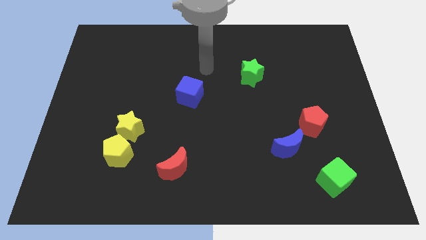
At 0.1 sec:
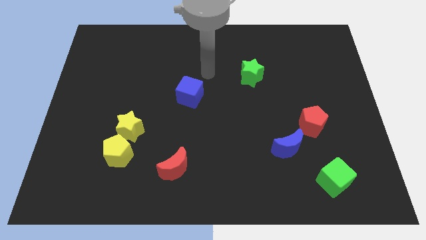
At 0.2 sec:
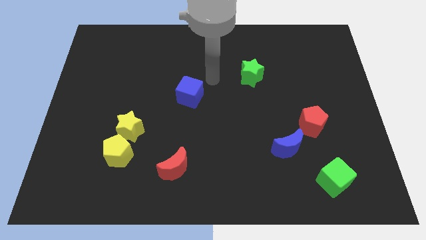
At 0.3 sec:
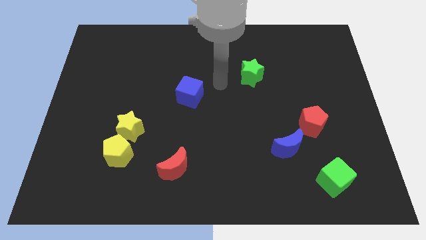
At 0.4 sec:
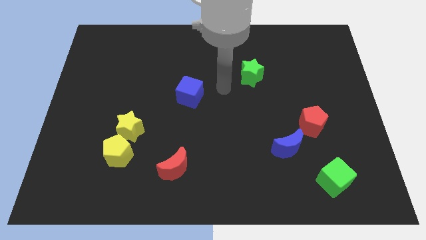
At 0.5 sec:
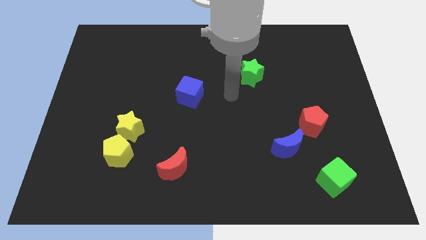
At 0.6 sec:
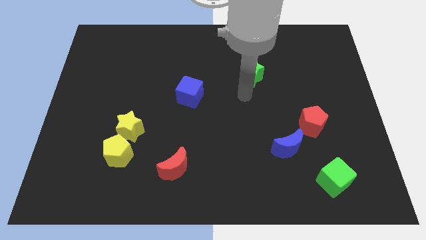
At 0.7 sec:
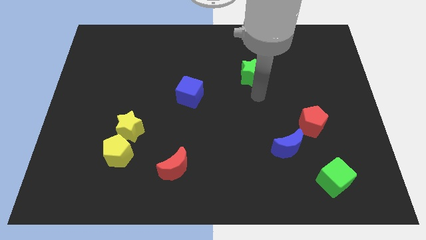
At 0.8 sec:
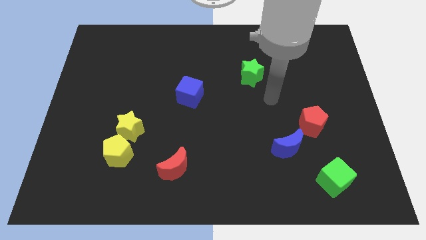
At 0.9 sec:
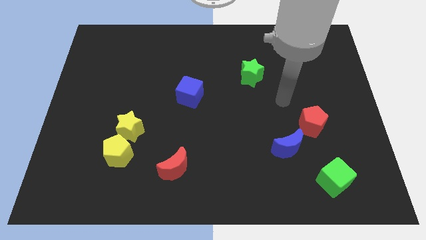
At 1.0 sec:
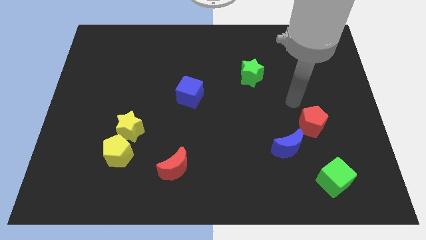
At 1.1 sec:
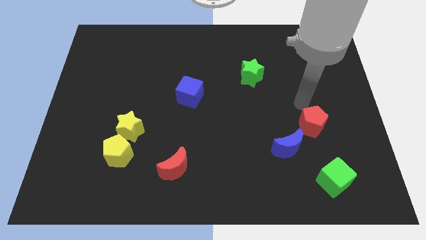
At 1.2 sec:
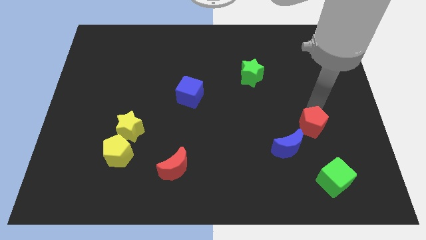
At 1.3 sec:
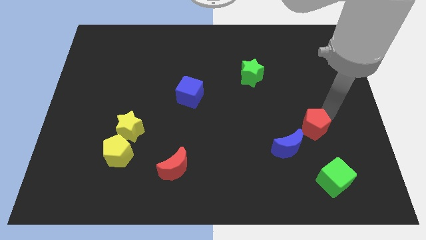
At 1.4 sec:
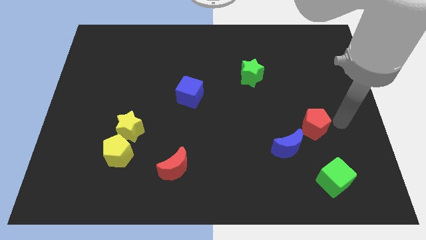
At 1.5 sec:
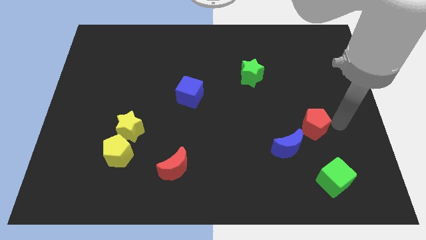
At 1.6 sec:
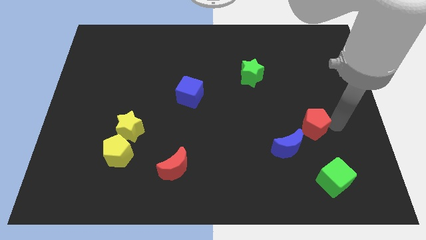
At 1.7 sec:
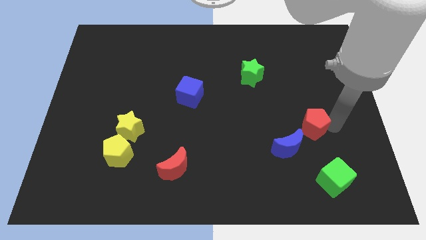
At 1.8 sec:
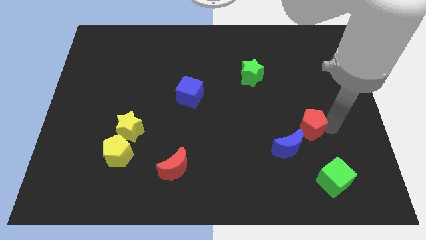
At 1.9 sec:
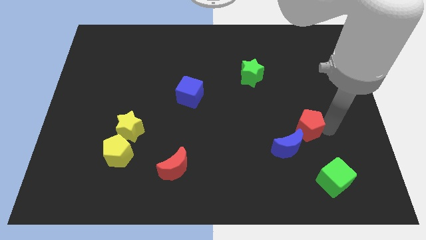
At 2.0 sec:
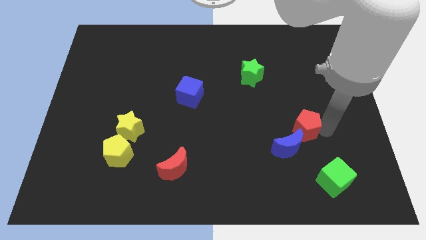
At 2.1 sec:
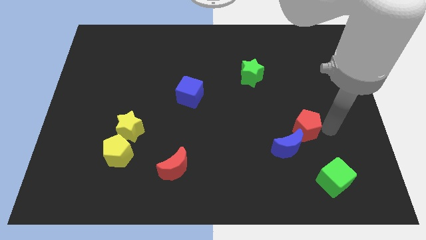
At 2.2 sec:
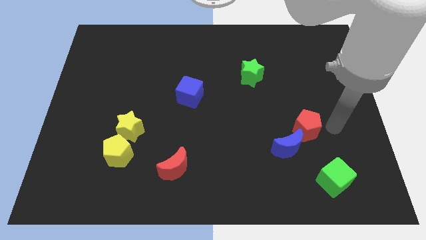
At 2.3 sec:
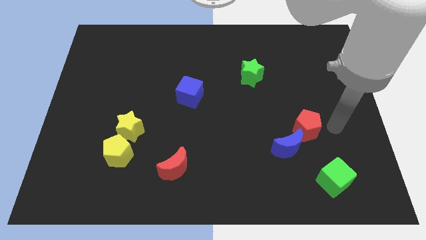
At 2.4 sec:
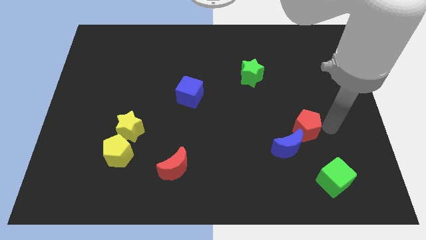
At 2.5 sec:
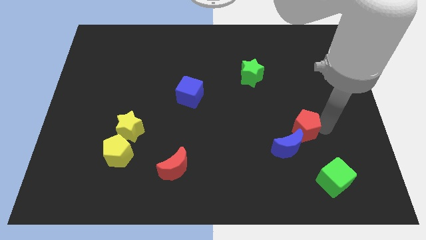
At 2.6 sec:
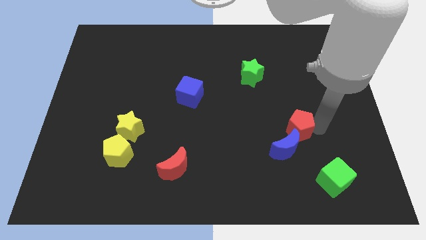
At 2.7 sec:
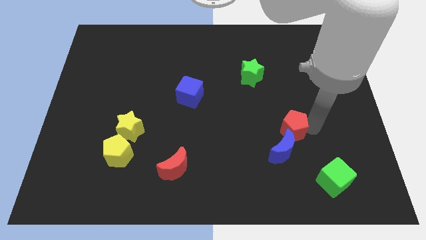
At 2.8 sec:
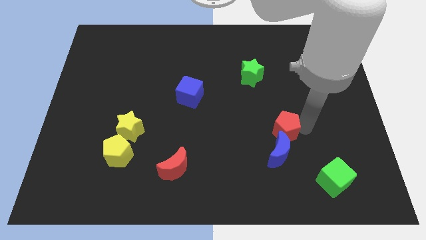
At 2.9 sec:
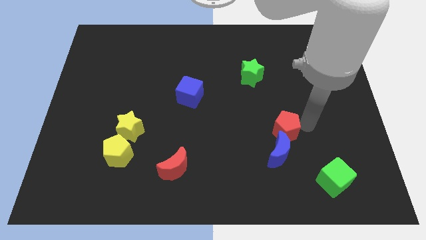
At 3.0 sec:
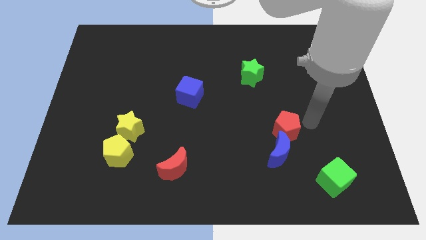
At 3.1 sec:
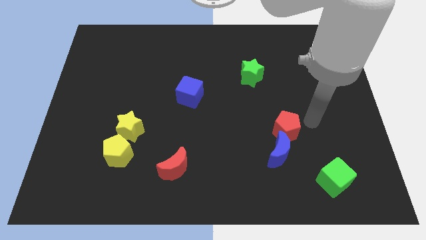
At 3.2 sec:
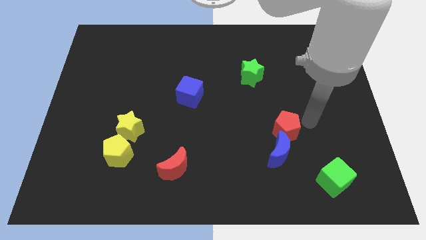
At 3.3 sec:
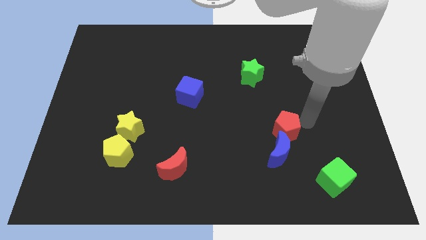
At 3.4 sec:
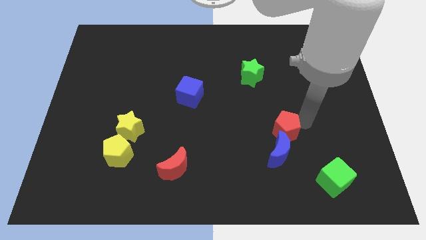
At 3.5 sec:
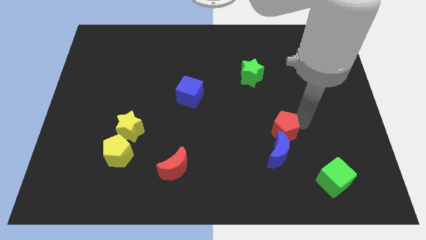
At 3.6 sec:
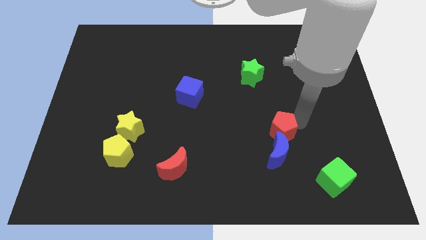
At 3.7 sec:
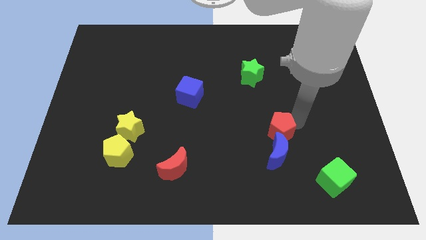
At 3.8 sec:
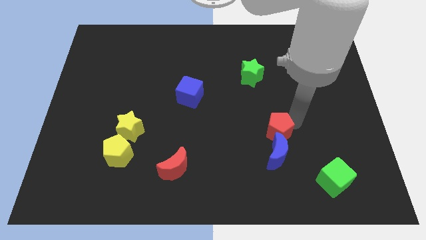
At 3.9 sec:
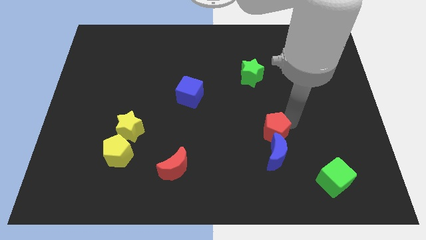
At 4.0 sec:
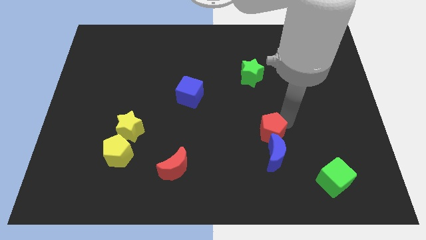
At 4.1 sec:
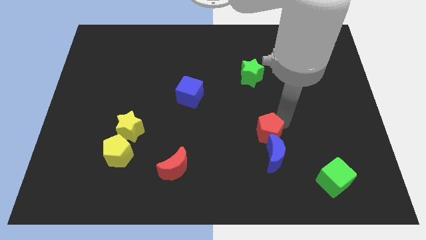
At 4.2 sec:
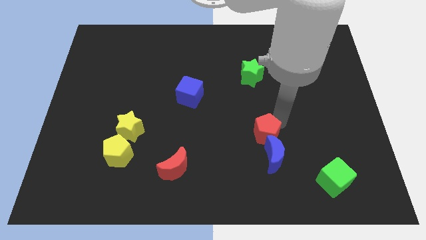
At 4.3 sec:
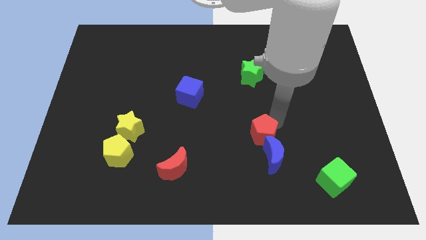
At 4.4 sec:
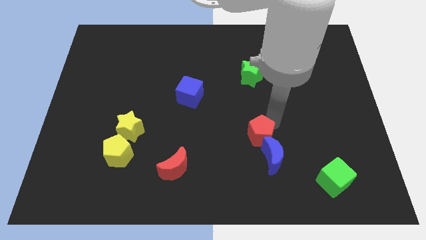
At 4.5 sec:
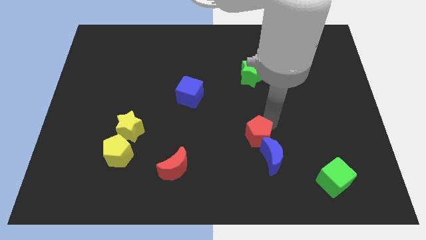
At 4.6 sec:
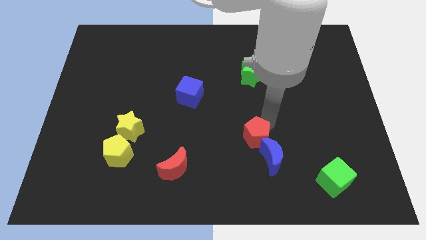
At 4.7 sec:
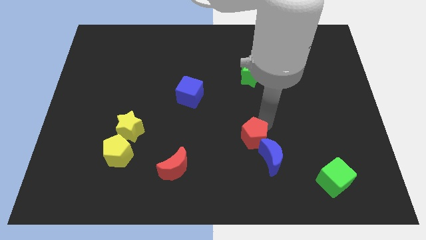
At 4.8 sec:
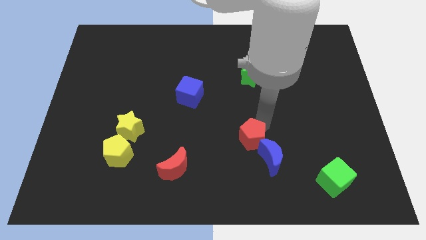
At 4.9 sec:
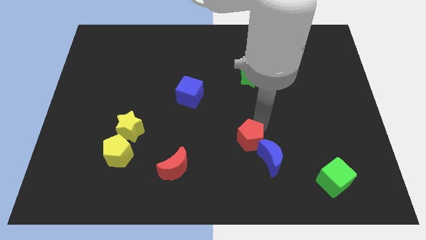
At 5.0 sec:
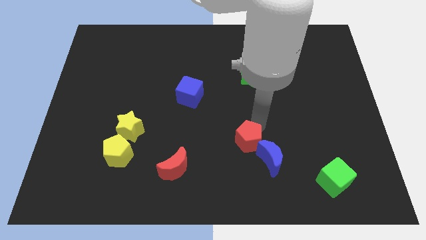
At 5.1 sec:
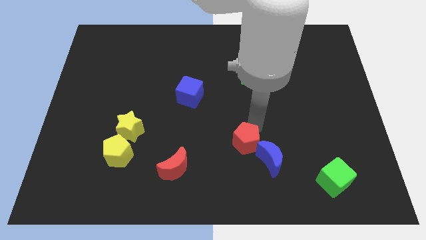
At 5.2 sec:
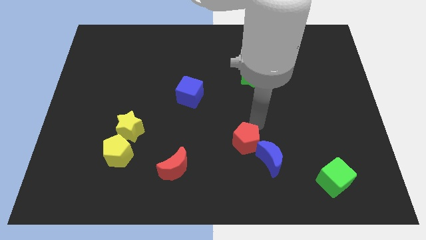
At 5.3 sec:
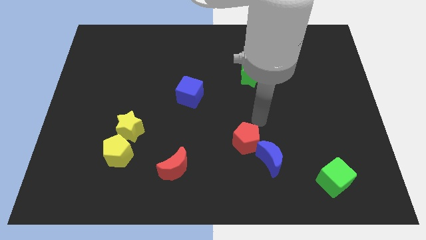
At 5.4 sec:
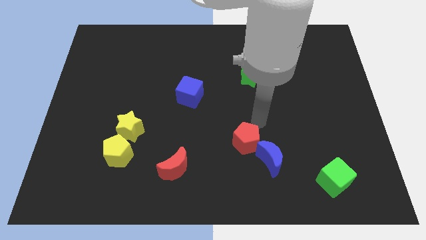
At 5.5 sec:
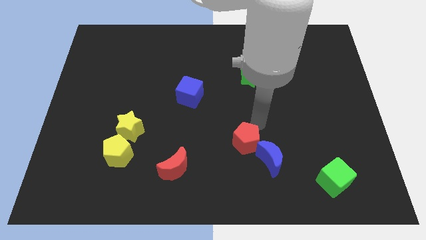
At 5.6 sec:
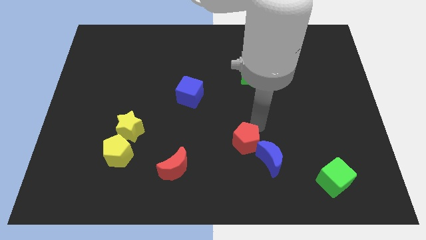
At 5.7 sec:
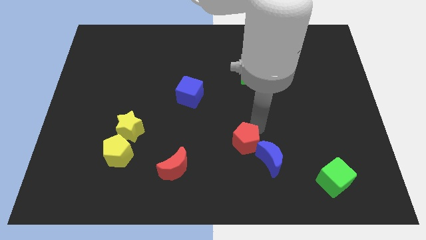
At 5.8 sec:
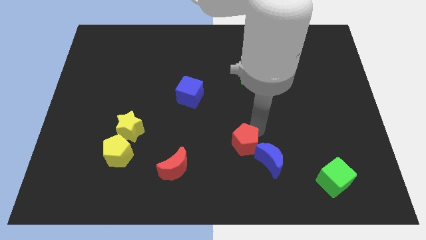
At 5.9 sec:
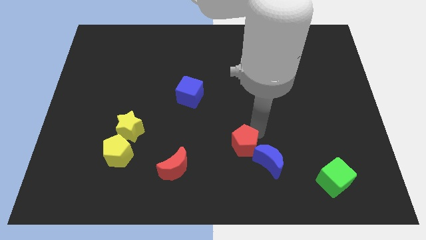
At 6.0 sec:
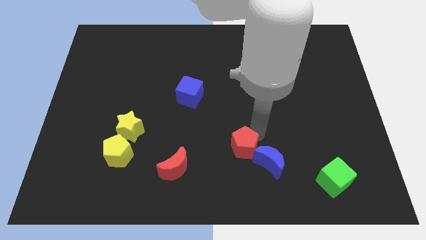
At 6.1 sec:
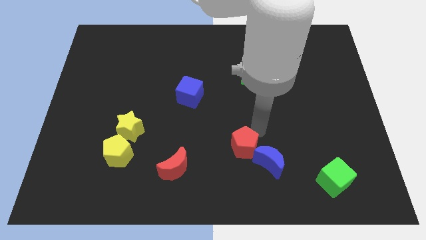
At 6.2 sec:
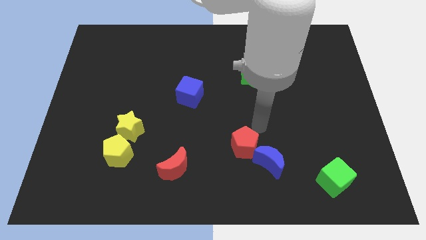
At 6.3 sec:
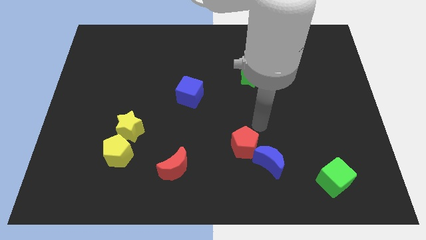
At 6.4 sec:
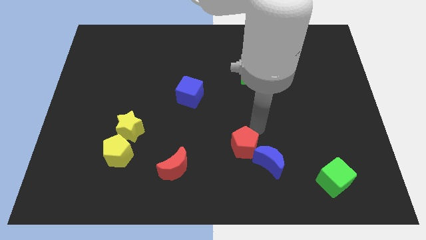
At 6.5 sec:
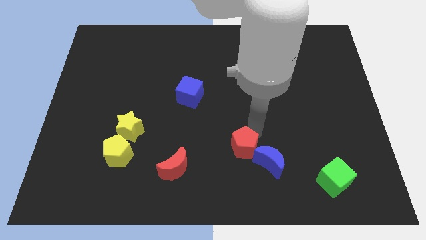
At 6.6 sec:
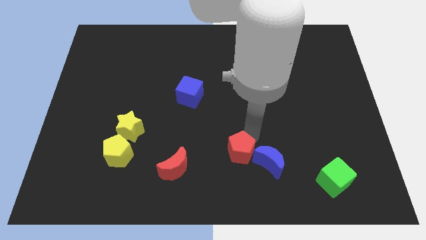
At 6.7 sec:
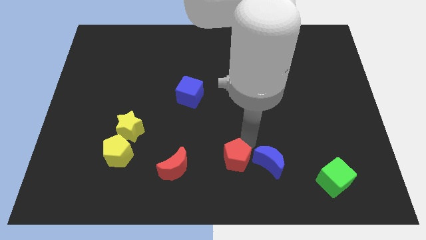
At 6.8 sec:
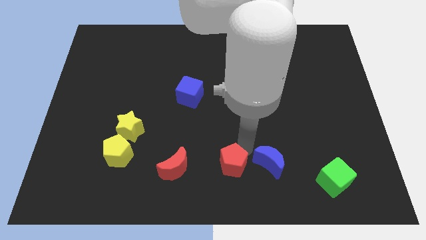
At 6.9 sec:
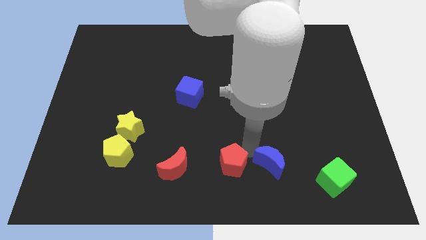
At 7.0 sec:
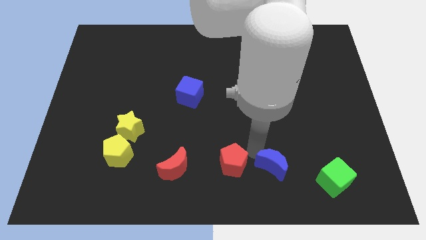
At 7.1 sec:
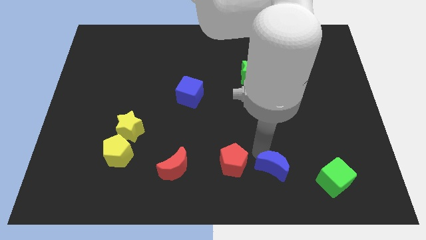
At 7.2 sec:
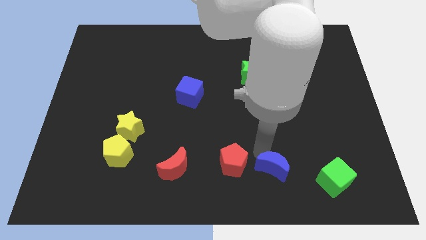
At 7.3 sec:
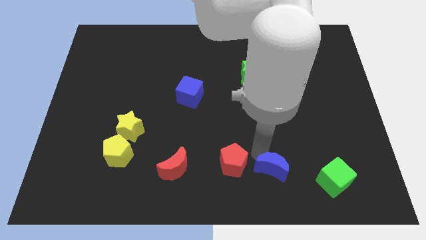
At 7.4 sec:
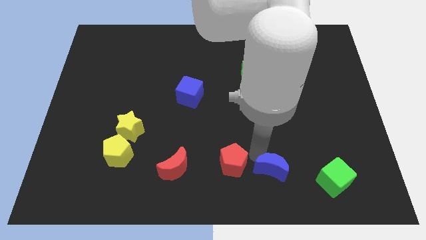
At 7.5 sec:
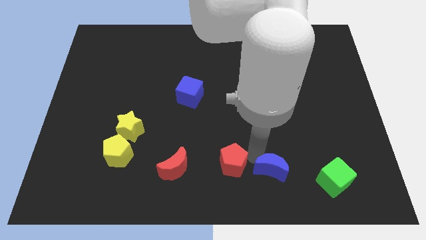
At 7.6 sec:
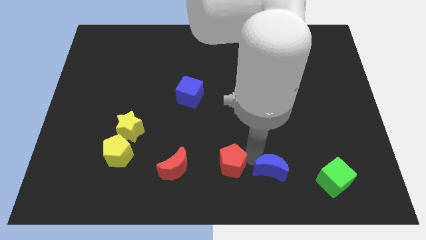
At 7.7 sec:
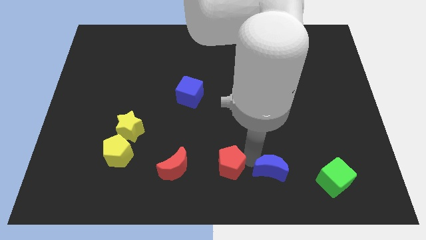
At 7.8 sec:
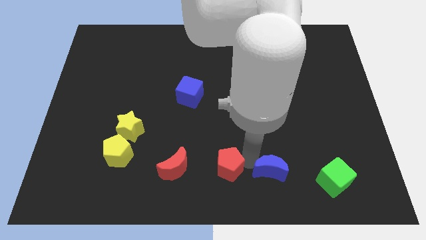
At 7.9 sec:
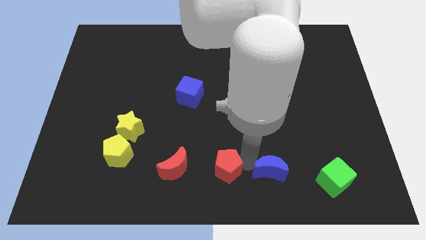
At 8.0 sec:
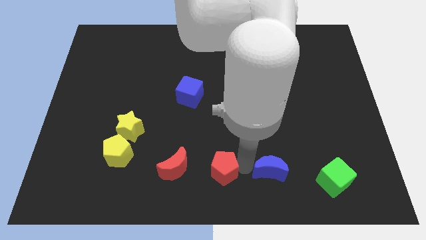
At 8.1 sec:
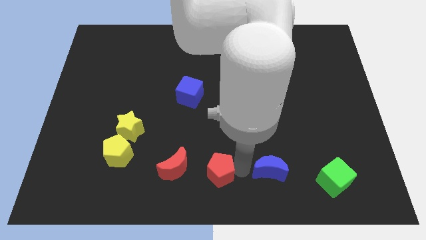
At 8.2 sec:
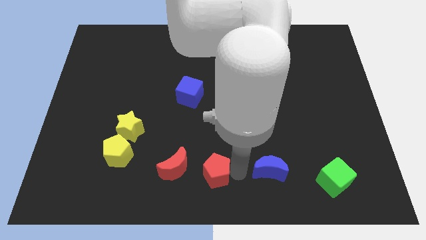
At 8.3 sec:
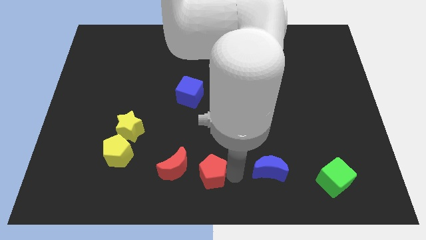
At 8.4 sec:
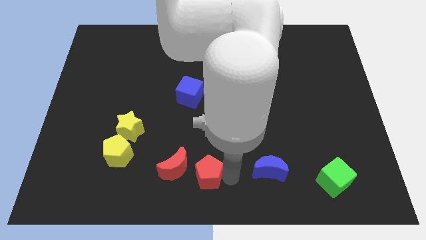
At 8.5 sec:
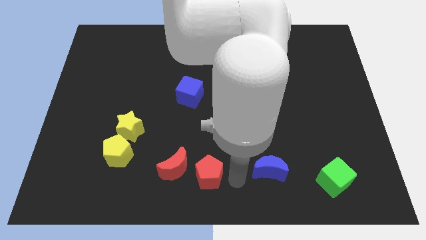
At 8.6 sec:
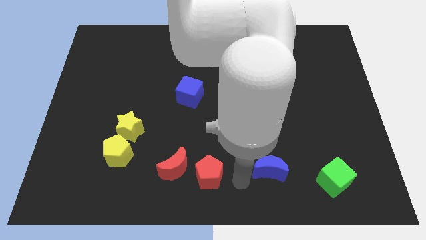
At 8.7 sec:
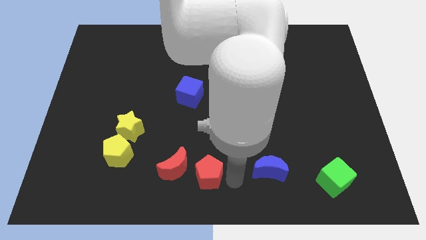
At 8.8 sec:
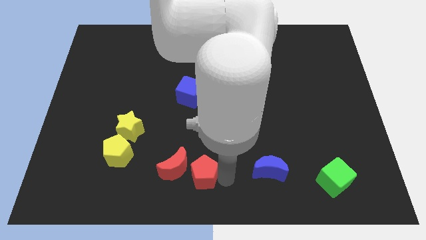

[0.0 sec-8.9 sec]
move the red pentagon next to the red moon
